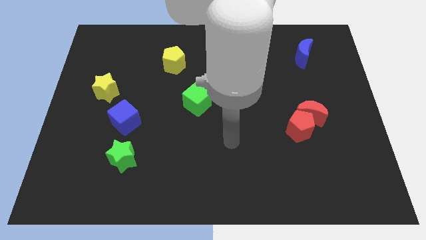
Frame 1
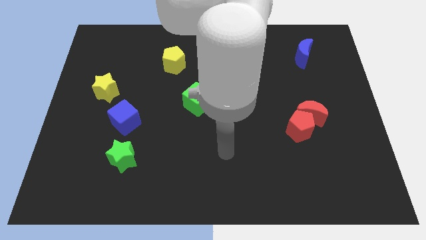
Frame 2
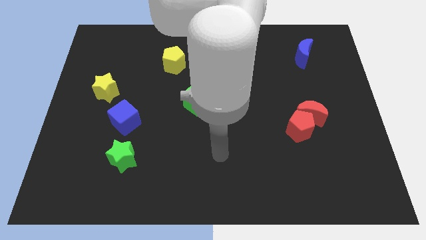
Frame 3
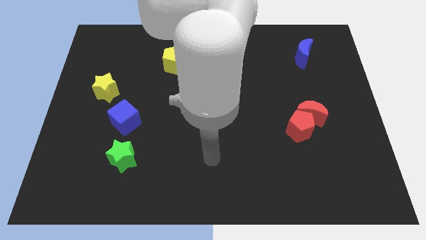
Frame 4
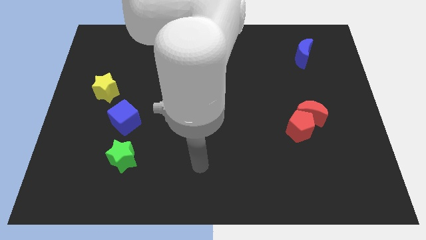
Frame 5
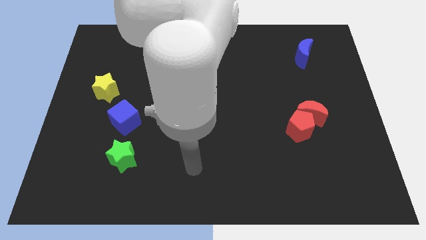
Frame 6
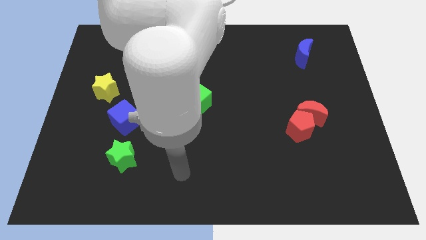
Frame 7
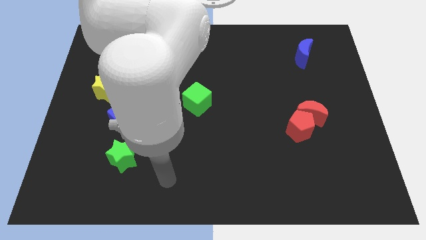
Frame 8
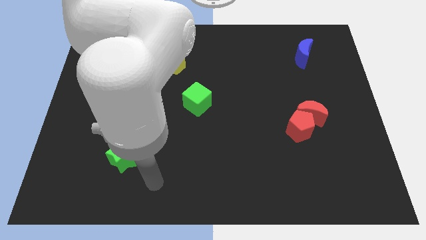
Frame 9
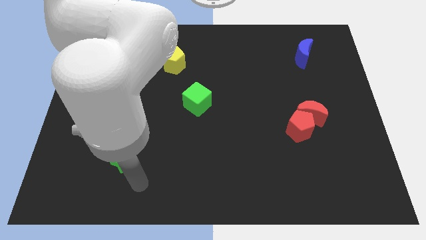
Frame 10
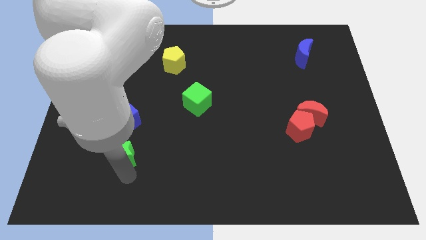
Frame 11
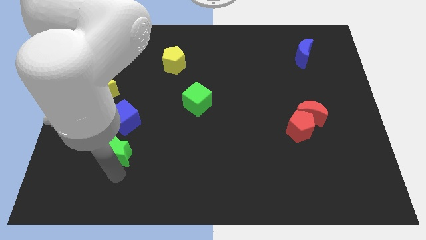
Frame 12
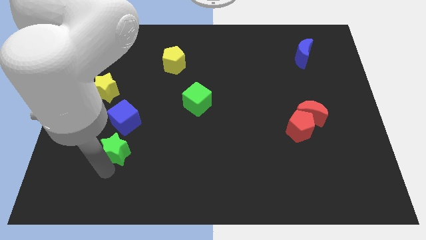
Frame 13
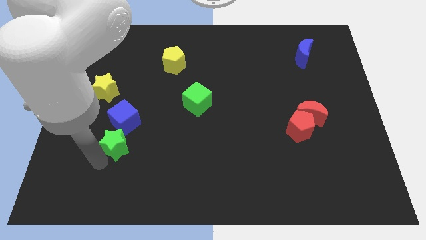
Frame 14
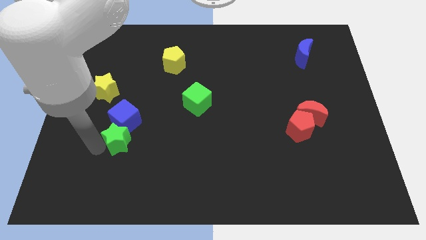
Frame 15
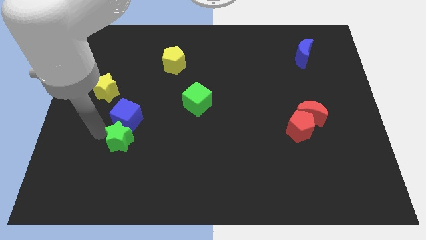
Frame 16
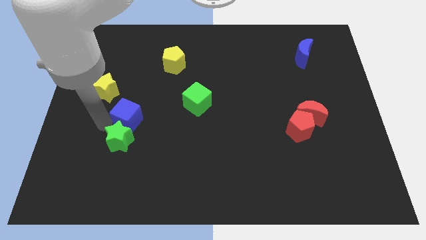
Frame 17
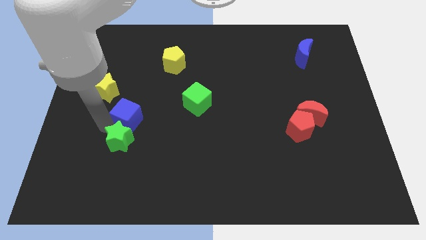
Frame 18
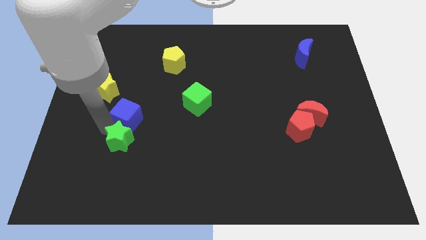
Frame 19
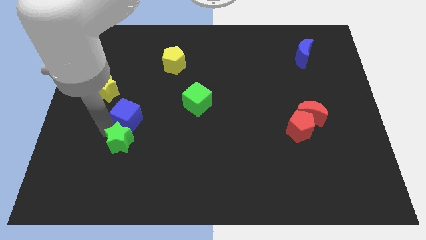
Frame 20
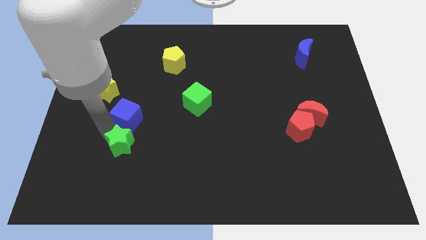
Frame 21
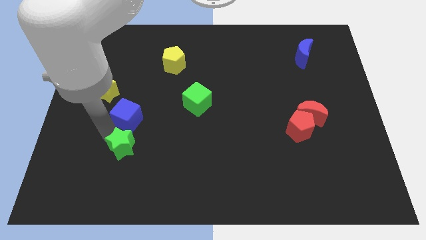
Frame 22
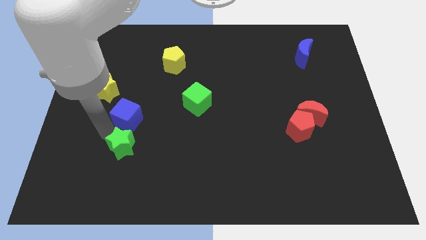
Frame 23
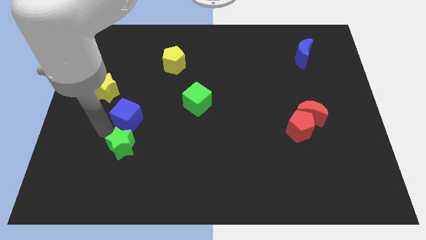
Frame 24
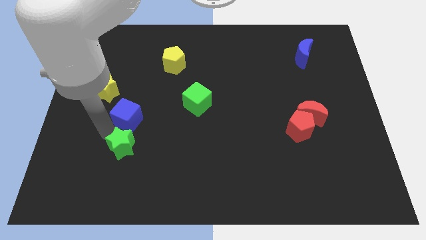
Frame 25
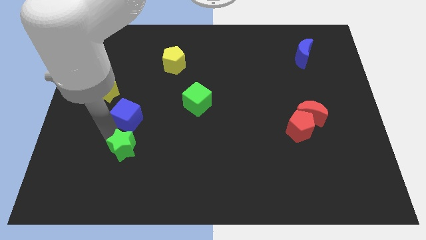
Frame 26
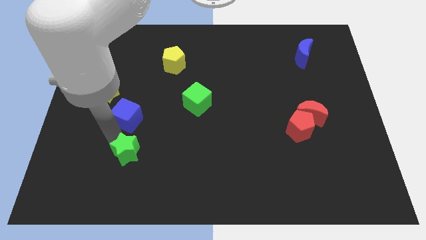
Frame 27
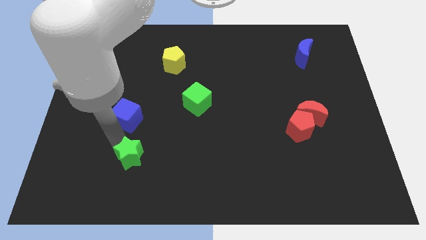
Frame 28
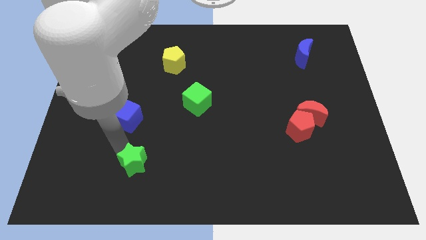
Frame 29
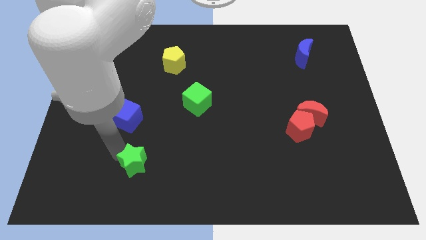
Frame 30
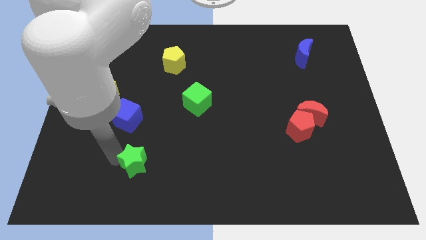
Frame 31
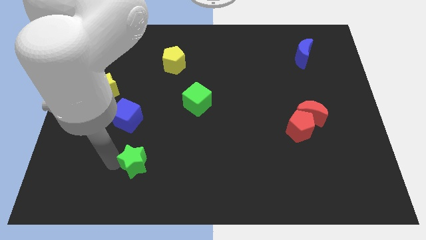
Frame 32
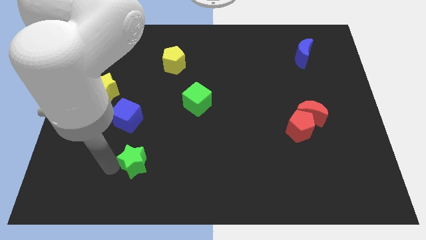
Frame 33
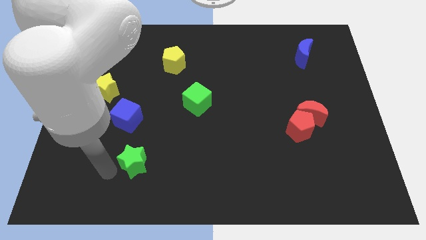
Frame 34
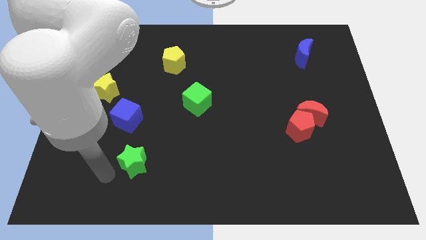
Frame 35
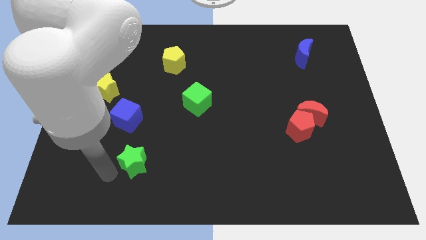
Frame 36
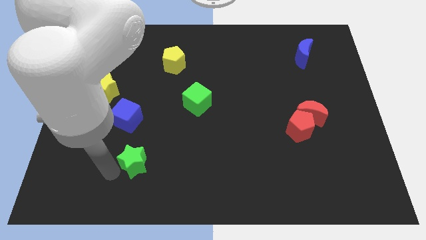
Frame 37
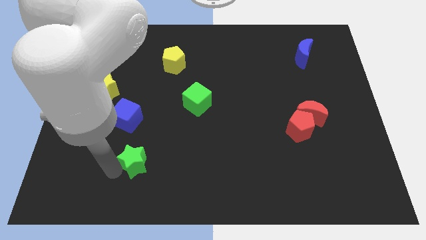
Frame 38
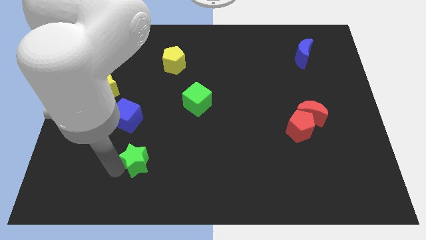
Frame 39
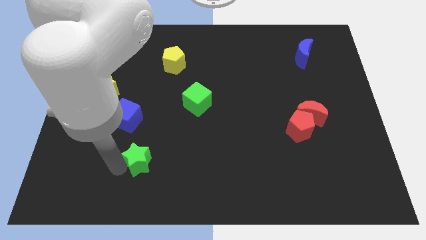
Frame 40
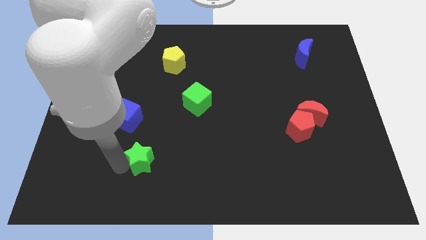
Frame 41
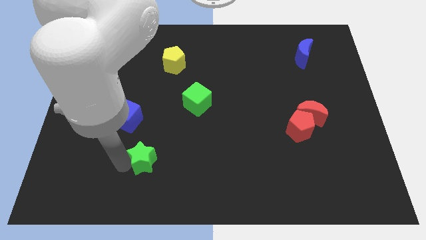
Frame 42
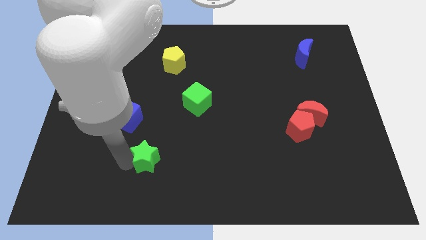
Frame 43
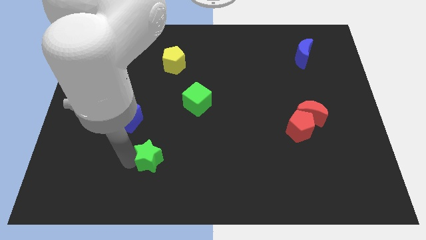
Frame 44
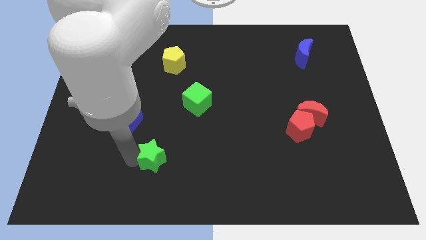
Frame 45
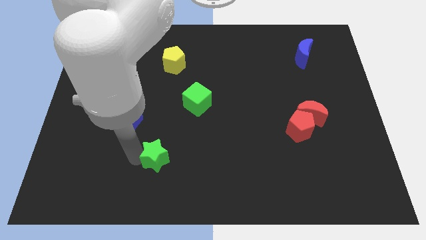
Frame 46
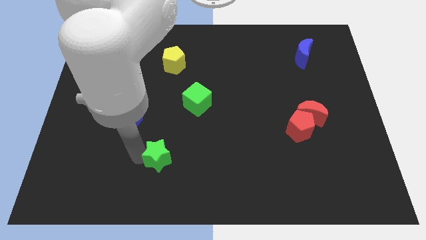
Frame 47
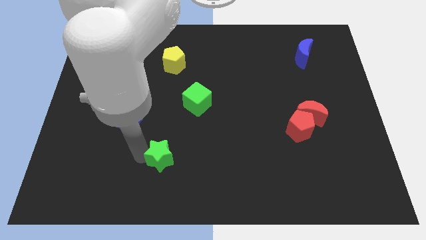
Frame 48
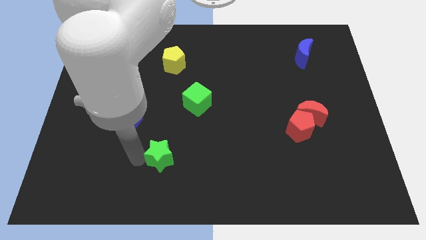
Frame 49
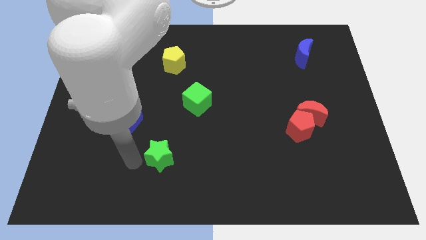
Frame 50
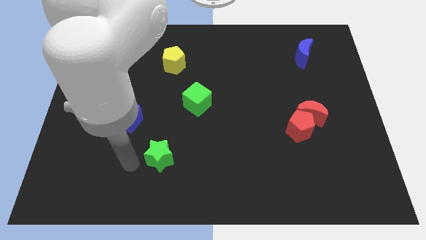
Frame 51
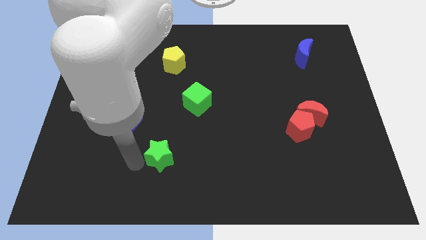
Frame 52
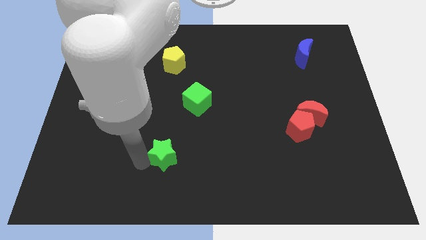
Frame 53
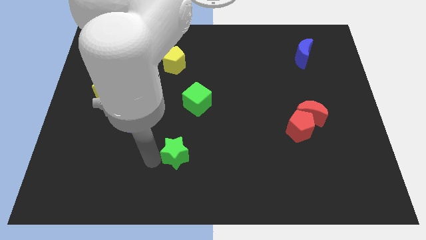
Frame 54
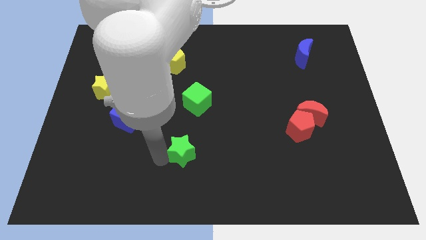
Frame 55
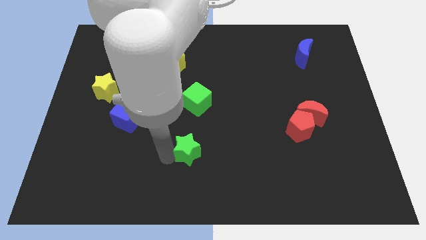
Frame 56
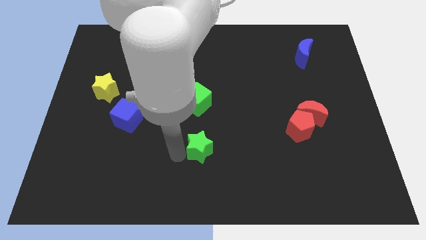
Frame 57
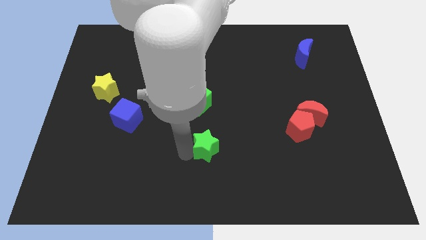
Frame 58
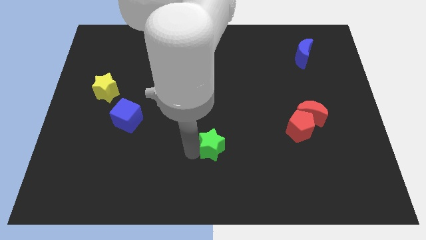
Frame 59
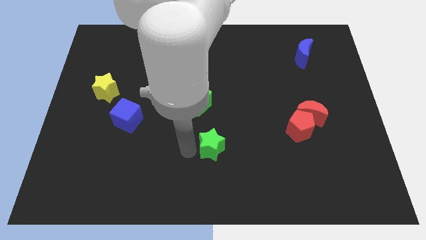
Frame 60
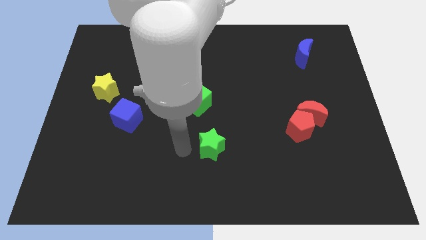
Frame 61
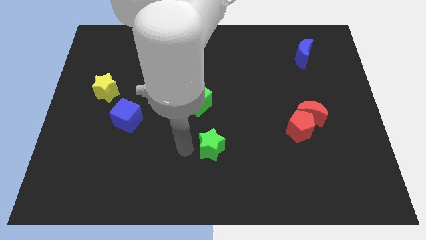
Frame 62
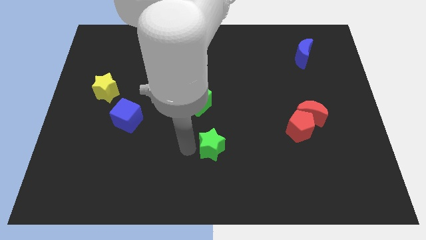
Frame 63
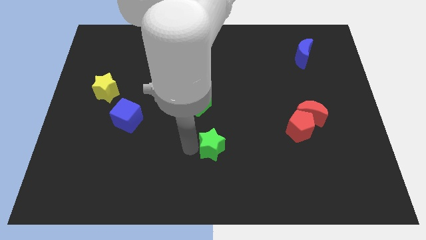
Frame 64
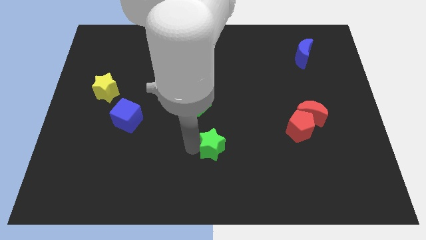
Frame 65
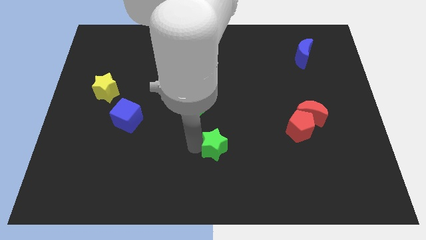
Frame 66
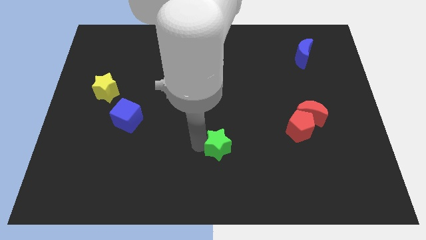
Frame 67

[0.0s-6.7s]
slide the green star right

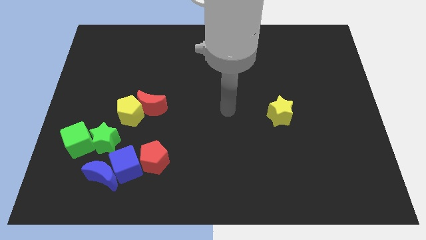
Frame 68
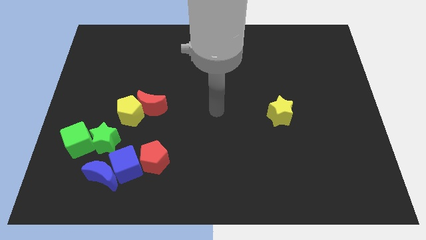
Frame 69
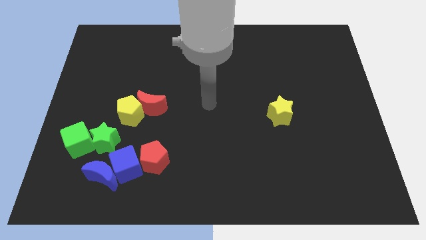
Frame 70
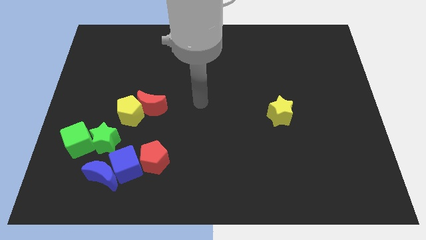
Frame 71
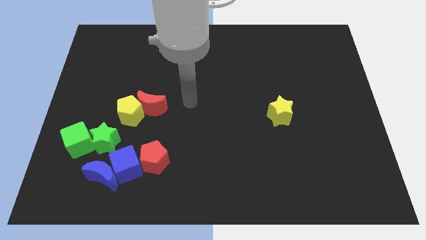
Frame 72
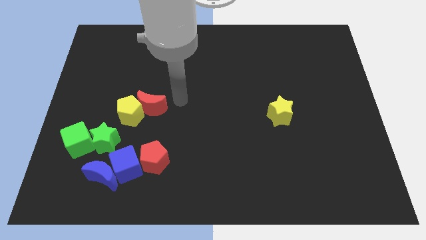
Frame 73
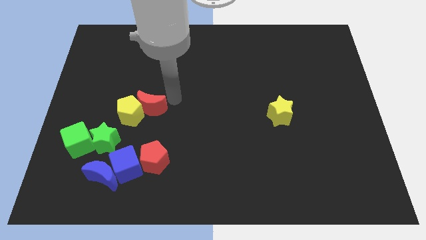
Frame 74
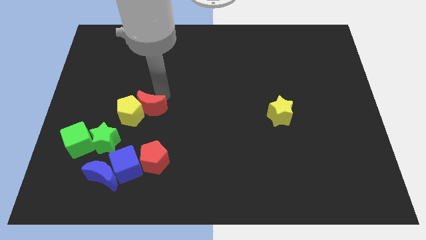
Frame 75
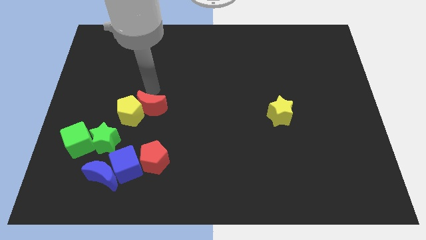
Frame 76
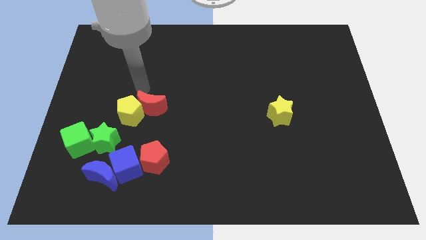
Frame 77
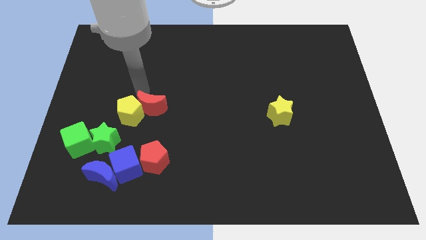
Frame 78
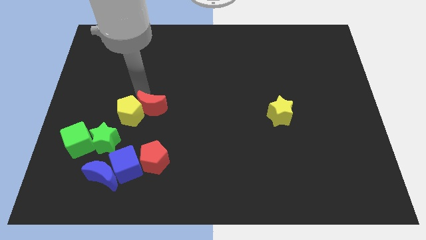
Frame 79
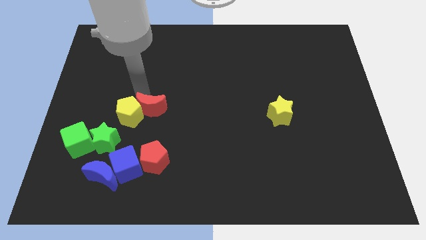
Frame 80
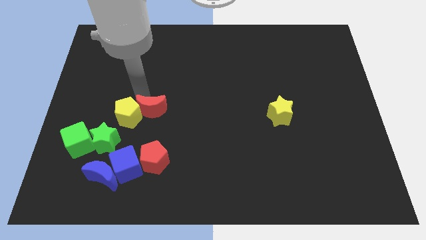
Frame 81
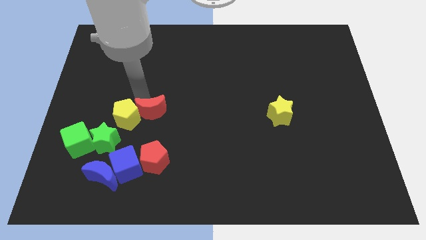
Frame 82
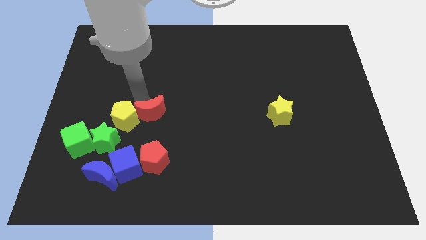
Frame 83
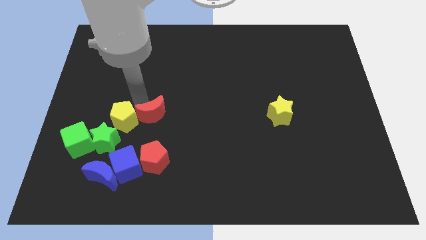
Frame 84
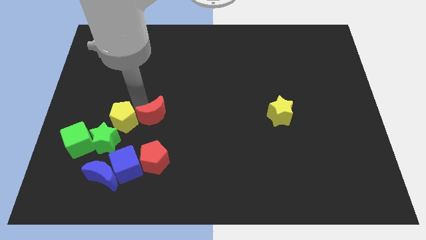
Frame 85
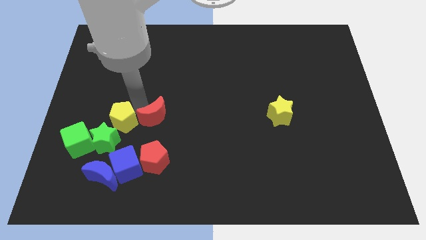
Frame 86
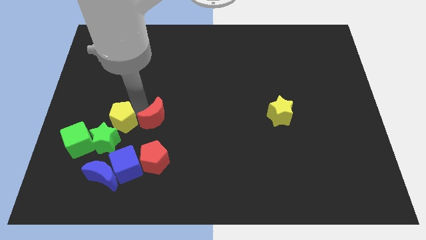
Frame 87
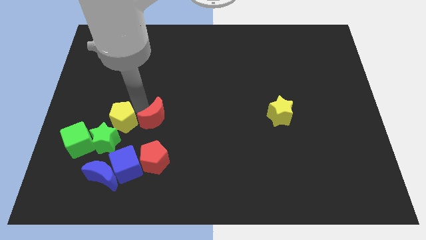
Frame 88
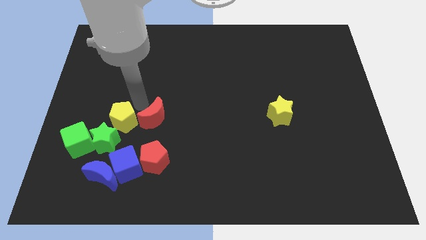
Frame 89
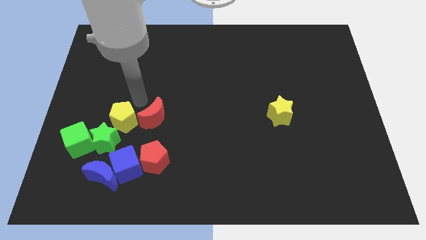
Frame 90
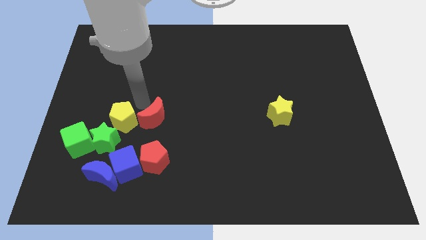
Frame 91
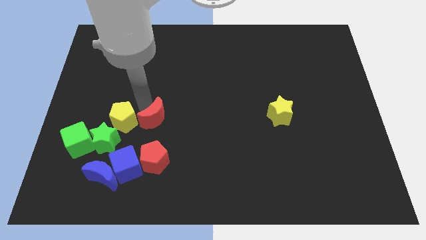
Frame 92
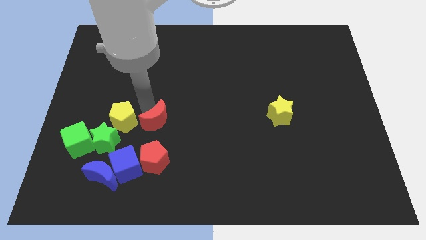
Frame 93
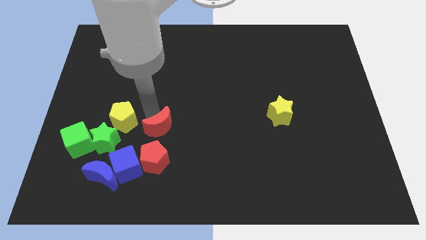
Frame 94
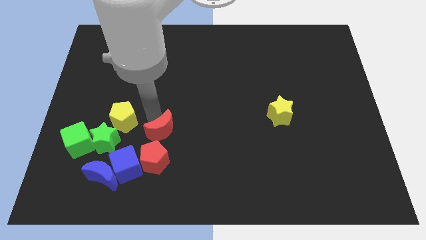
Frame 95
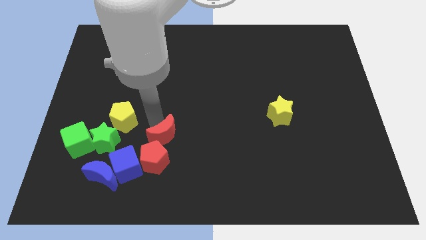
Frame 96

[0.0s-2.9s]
slightly push the red moon down
